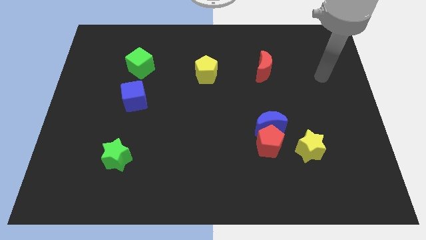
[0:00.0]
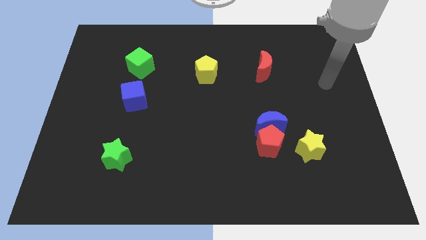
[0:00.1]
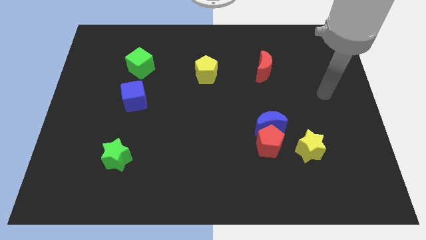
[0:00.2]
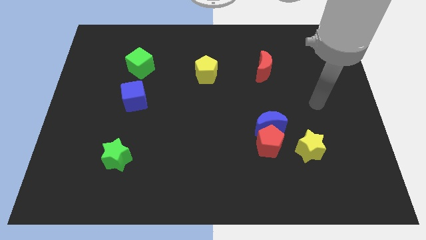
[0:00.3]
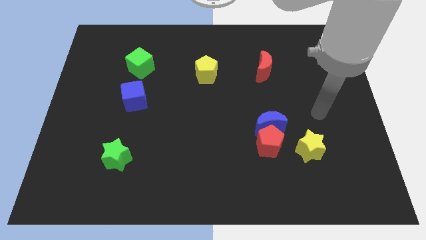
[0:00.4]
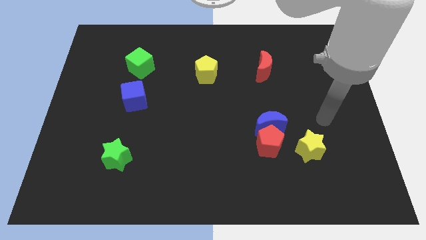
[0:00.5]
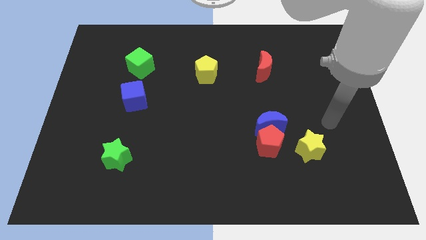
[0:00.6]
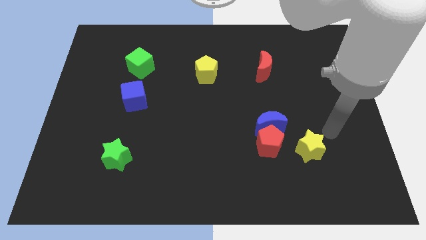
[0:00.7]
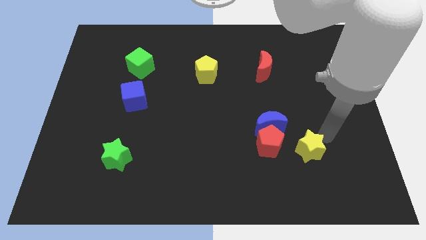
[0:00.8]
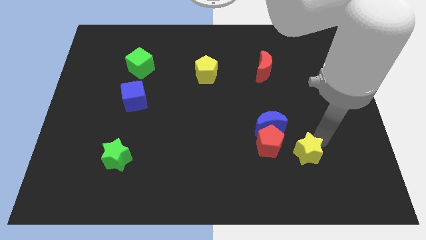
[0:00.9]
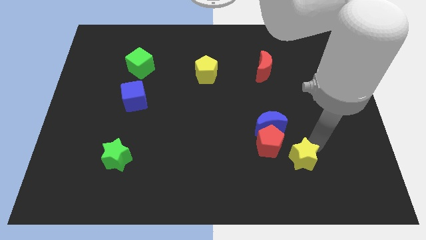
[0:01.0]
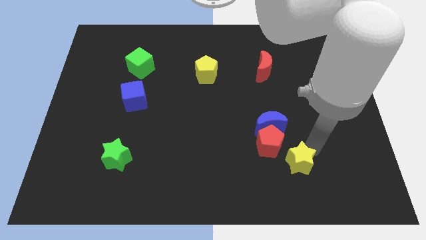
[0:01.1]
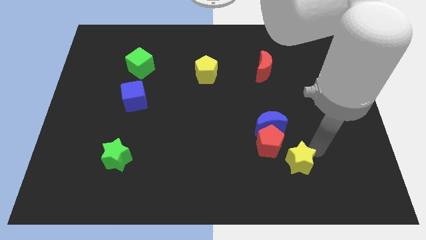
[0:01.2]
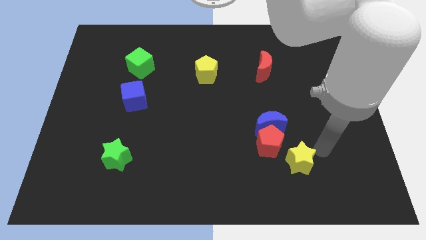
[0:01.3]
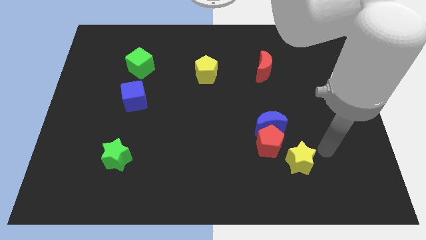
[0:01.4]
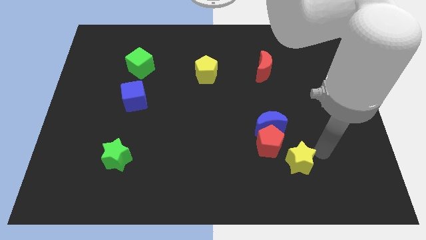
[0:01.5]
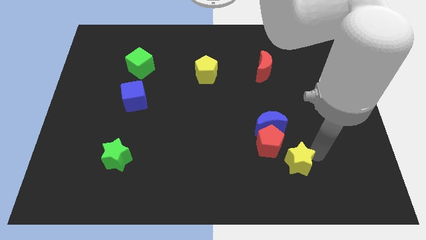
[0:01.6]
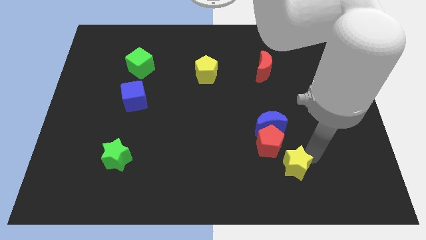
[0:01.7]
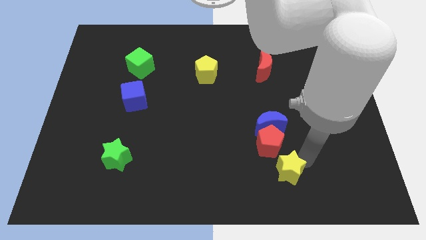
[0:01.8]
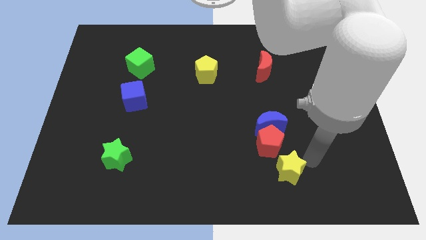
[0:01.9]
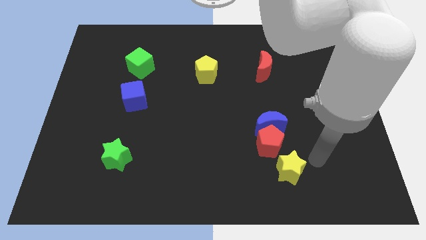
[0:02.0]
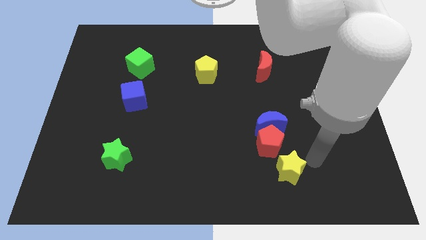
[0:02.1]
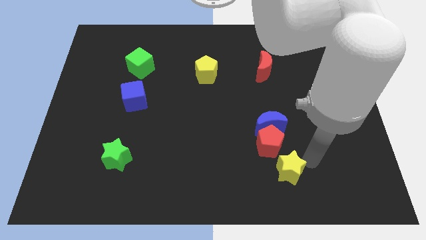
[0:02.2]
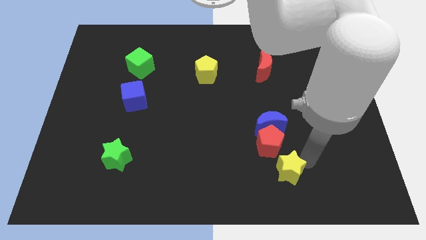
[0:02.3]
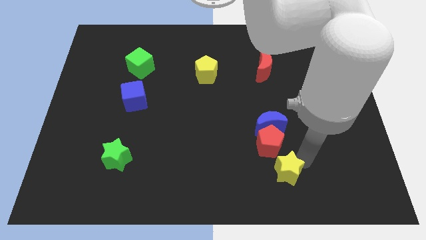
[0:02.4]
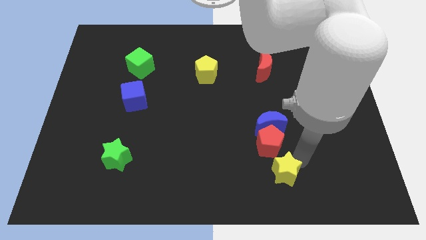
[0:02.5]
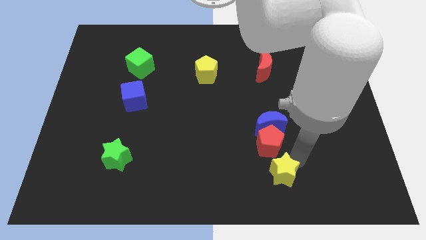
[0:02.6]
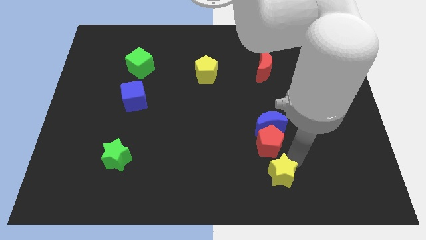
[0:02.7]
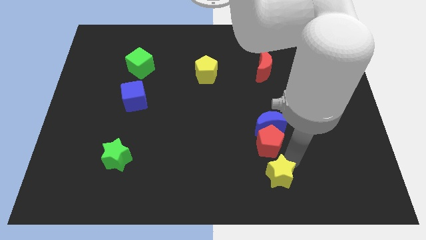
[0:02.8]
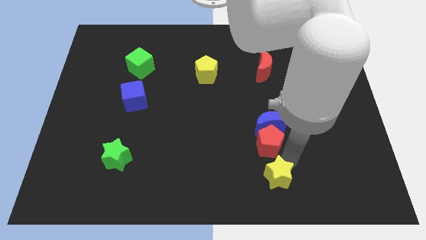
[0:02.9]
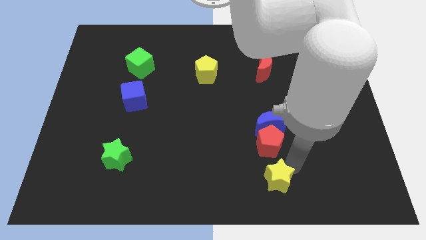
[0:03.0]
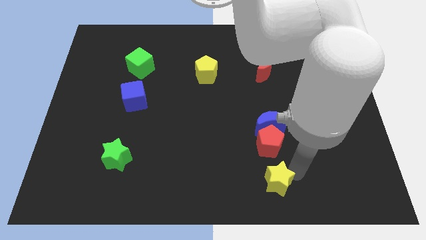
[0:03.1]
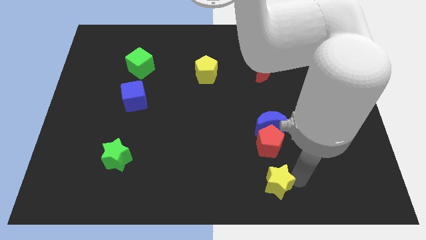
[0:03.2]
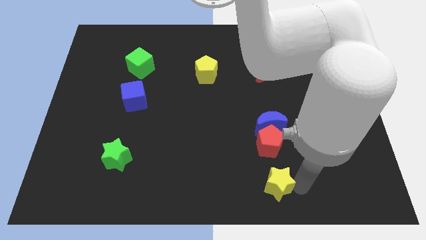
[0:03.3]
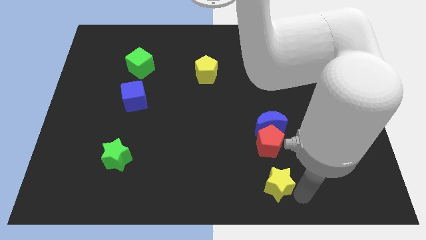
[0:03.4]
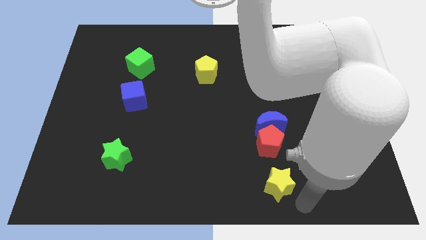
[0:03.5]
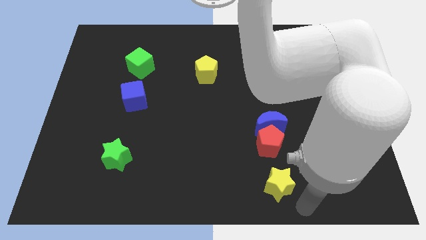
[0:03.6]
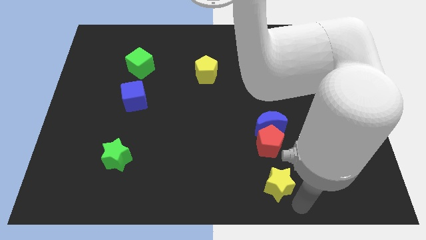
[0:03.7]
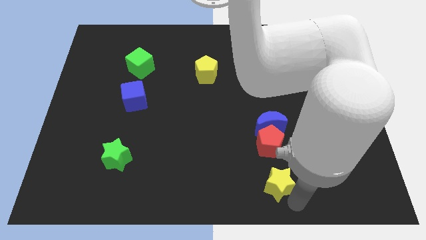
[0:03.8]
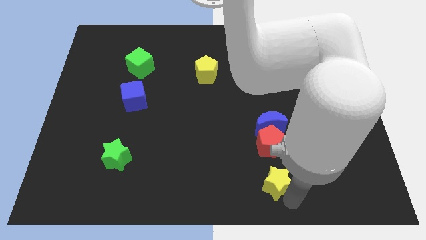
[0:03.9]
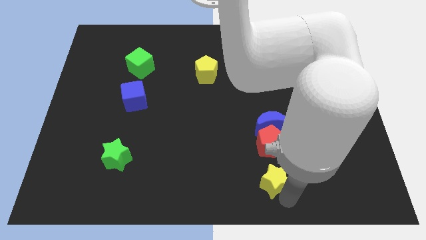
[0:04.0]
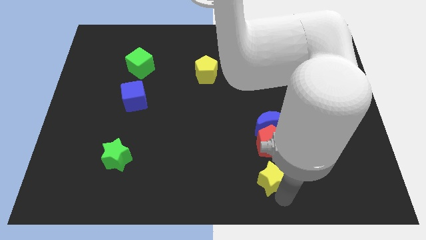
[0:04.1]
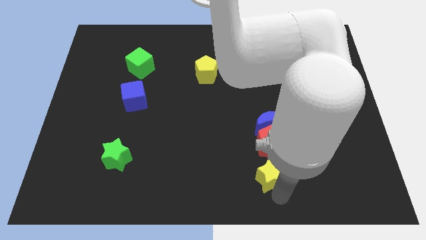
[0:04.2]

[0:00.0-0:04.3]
slightly push the yellow star to the left

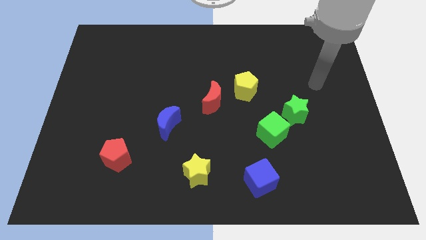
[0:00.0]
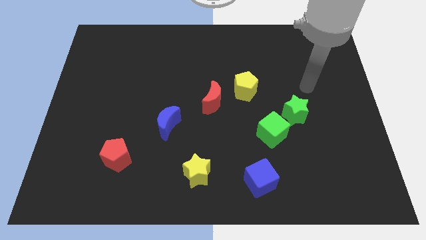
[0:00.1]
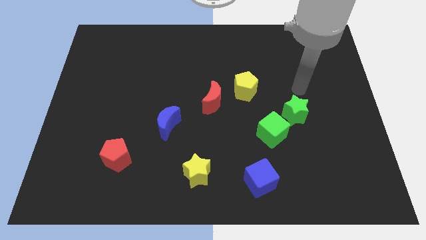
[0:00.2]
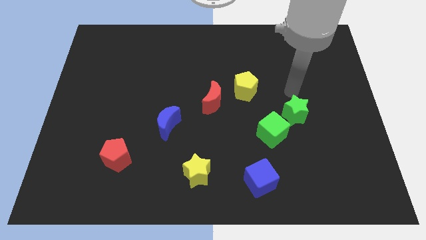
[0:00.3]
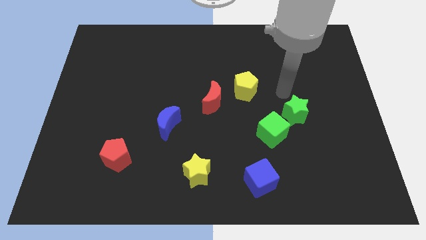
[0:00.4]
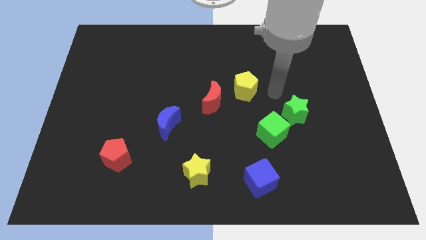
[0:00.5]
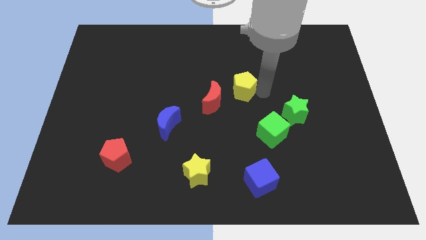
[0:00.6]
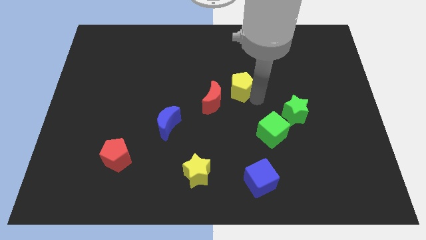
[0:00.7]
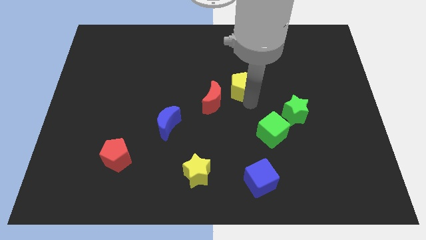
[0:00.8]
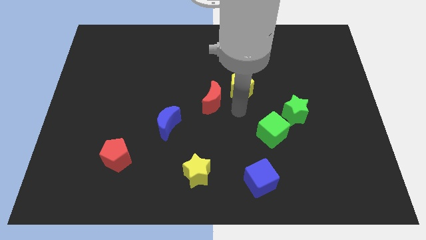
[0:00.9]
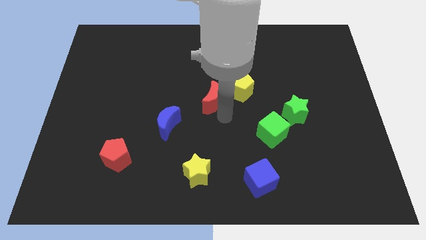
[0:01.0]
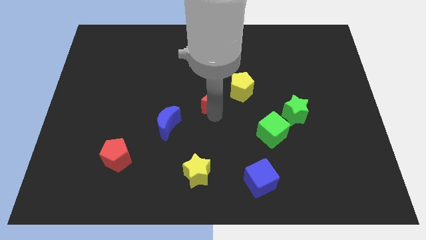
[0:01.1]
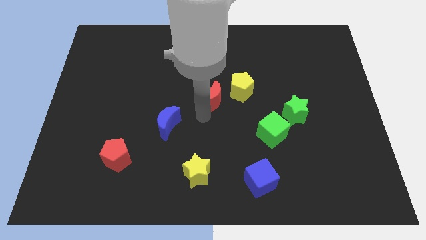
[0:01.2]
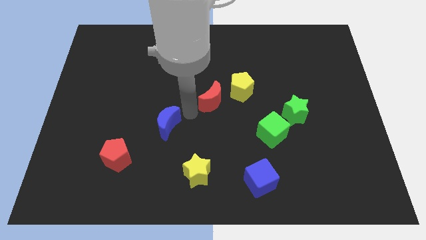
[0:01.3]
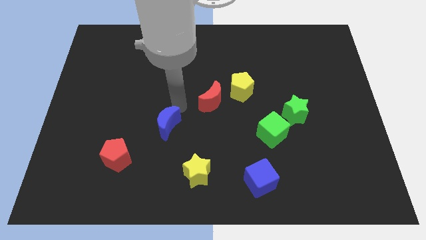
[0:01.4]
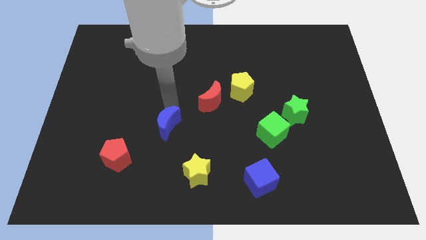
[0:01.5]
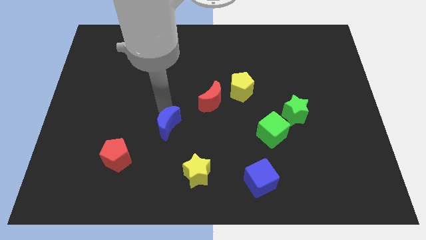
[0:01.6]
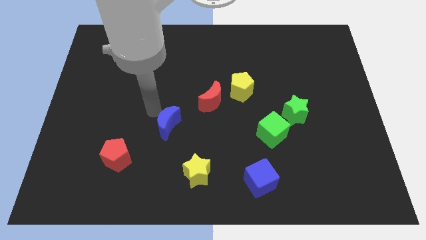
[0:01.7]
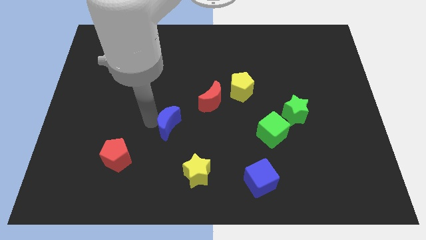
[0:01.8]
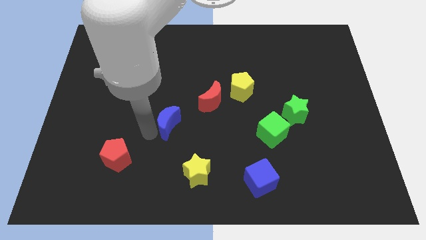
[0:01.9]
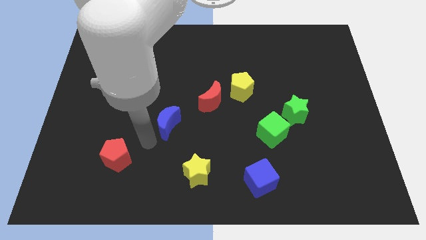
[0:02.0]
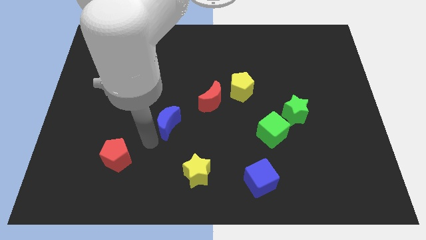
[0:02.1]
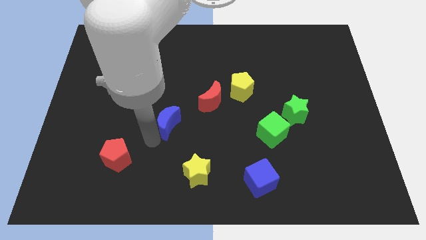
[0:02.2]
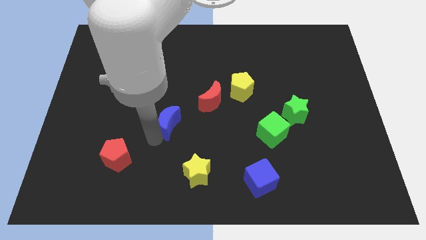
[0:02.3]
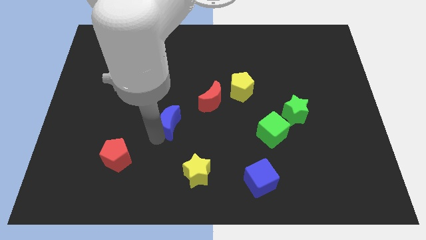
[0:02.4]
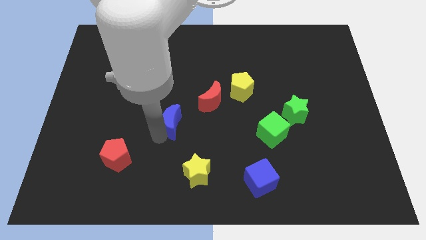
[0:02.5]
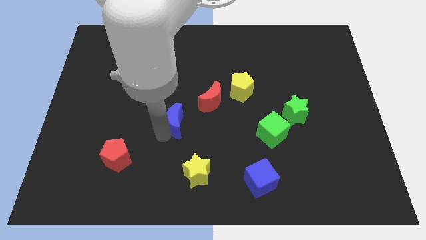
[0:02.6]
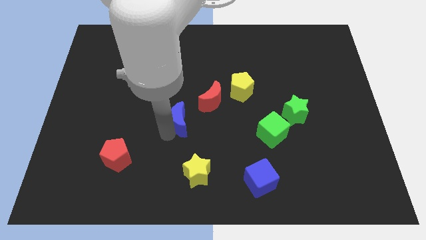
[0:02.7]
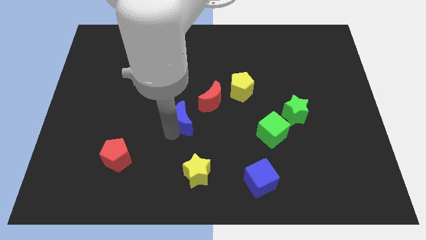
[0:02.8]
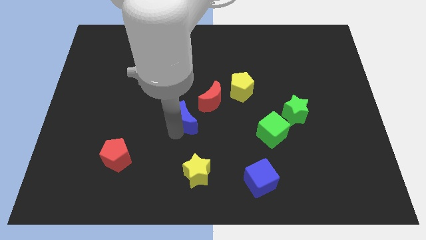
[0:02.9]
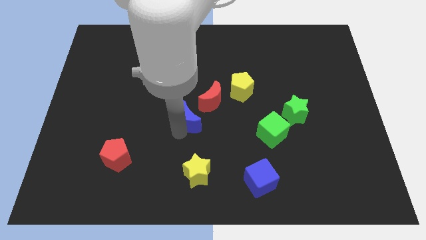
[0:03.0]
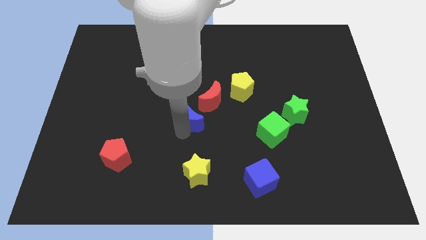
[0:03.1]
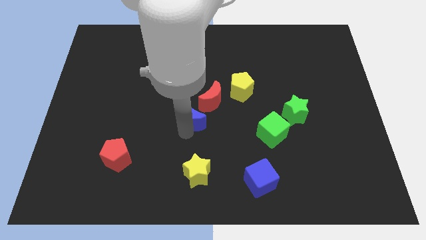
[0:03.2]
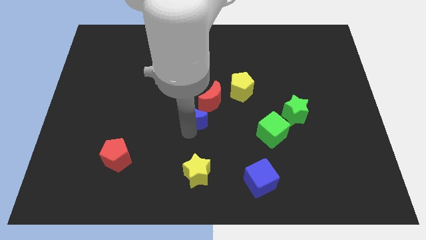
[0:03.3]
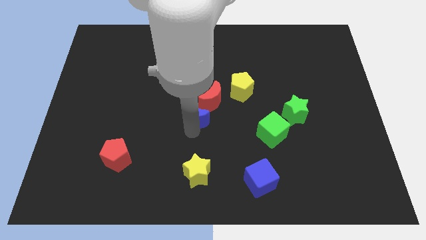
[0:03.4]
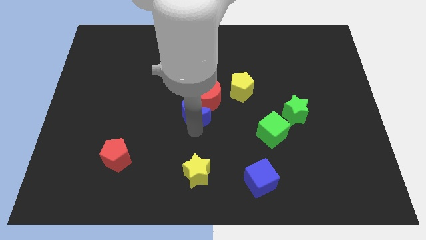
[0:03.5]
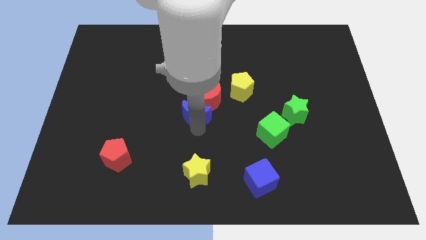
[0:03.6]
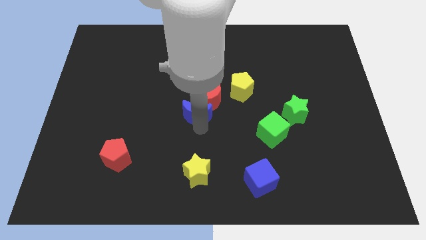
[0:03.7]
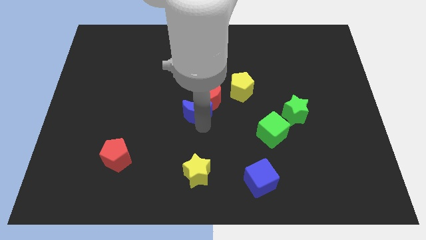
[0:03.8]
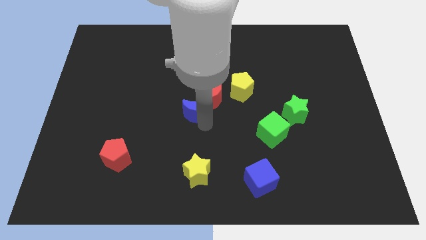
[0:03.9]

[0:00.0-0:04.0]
push the blue moon upwards and right a little
